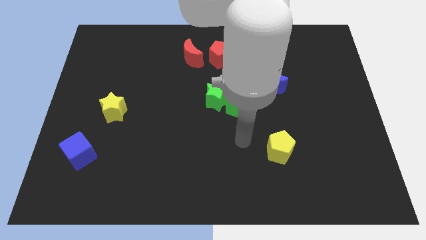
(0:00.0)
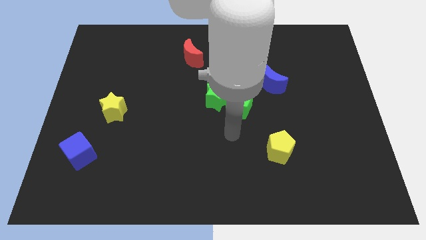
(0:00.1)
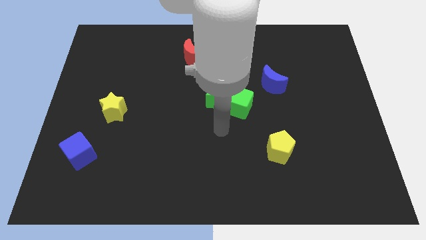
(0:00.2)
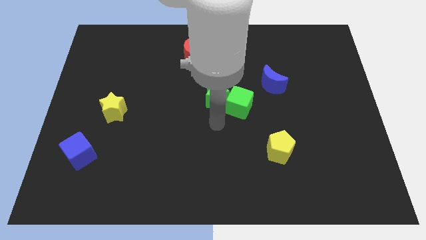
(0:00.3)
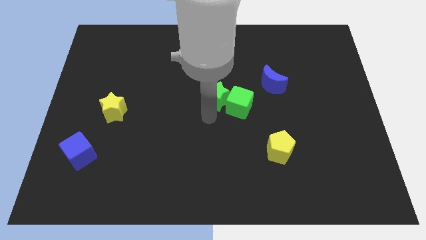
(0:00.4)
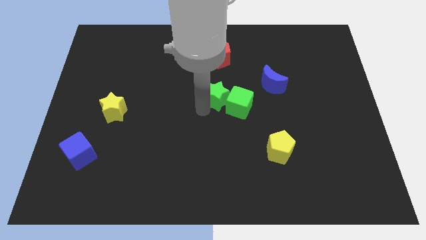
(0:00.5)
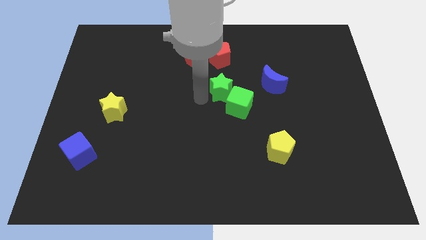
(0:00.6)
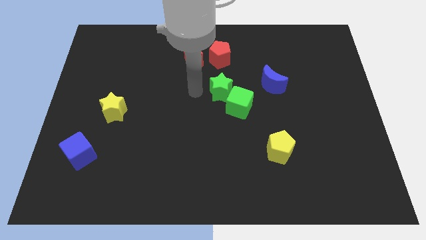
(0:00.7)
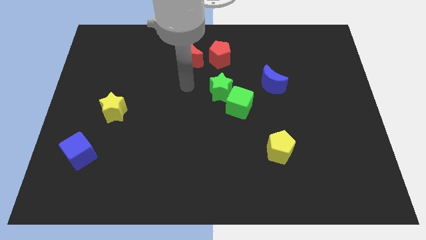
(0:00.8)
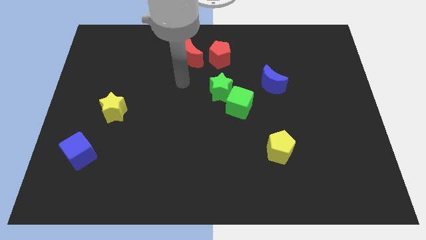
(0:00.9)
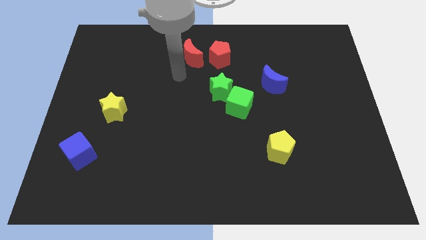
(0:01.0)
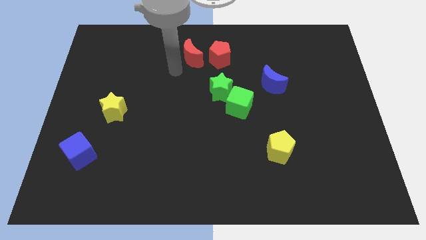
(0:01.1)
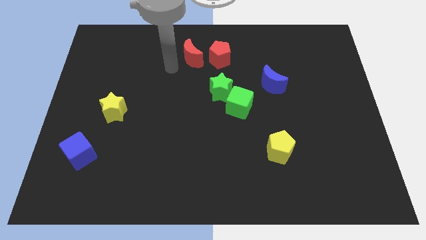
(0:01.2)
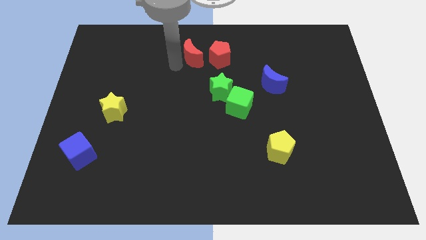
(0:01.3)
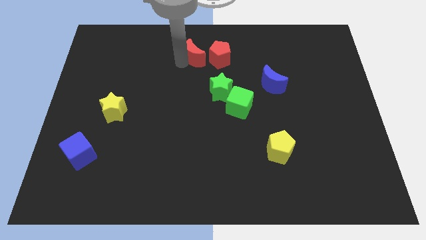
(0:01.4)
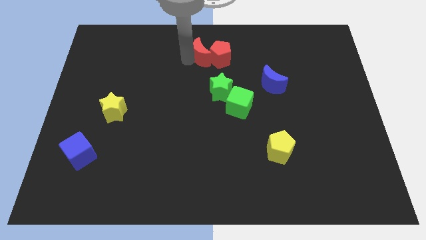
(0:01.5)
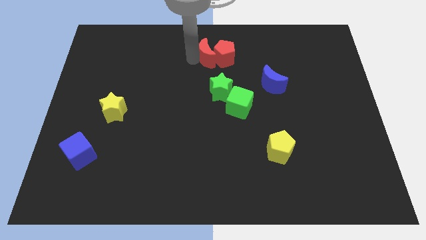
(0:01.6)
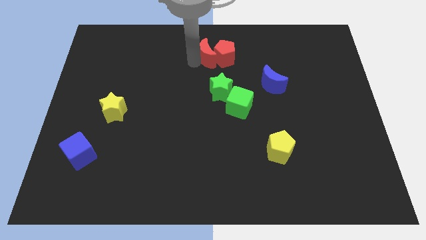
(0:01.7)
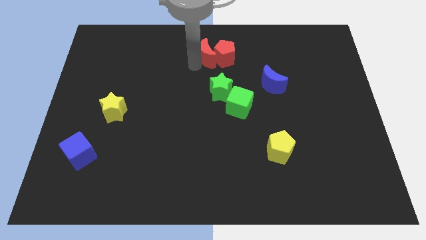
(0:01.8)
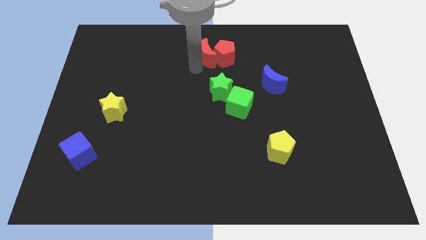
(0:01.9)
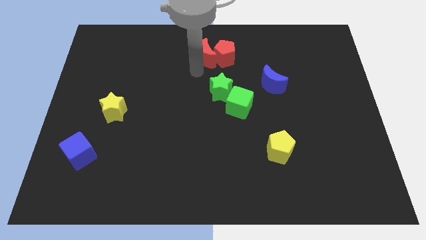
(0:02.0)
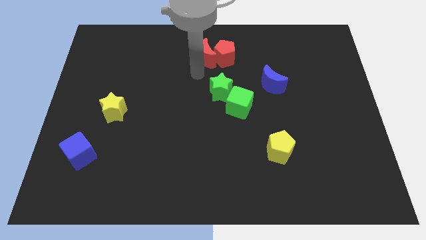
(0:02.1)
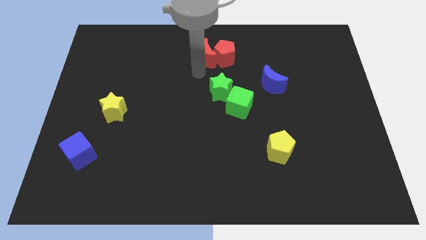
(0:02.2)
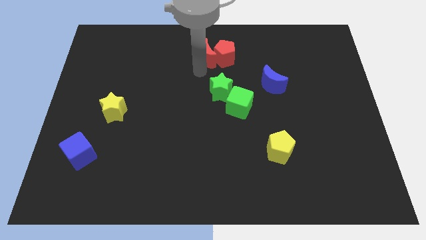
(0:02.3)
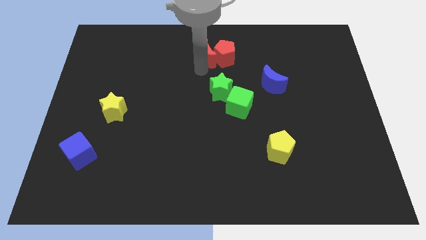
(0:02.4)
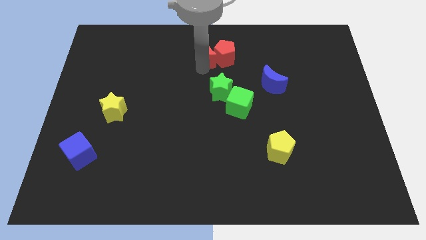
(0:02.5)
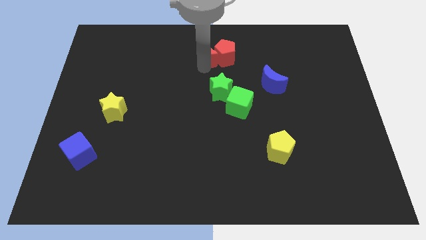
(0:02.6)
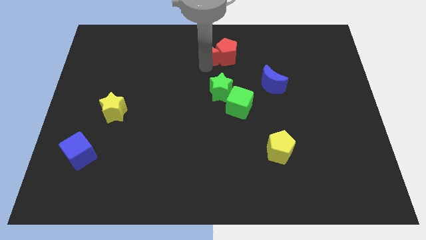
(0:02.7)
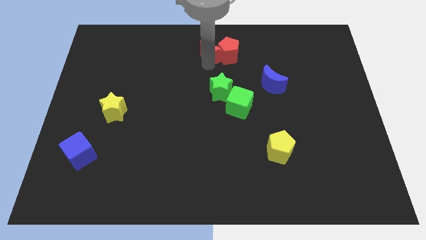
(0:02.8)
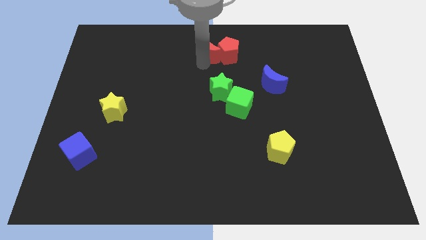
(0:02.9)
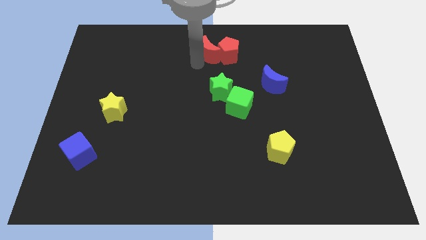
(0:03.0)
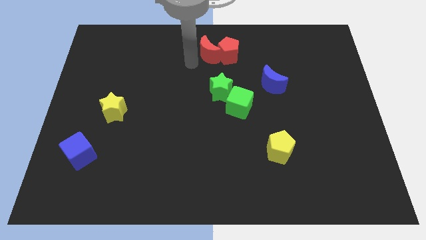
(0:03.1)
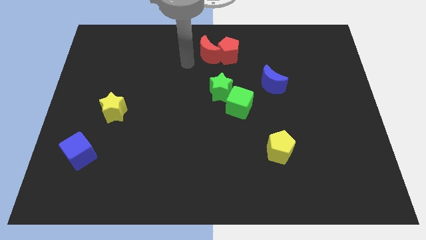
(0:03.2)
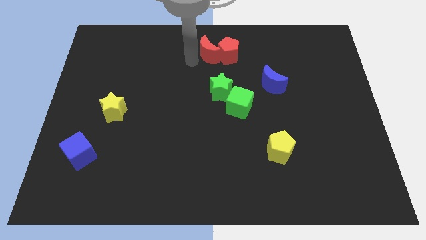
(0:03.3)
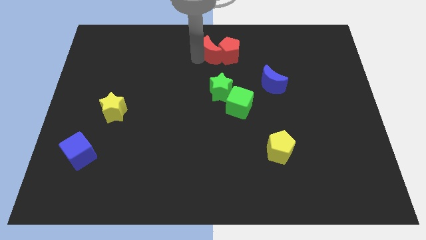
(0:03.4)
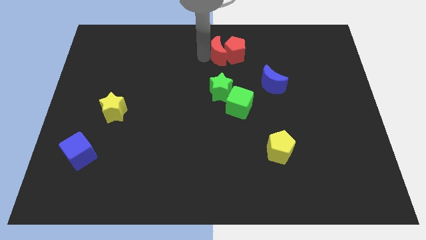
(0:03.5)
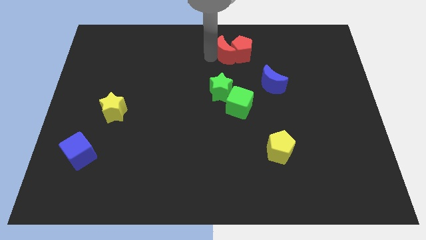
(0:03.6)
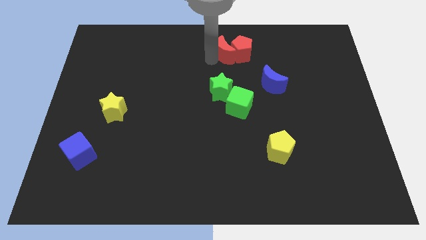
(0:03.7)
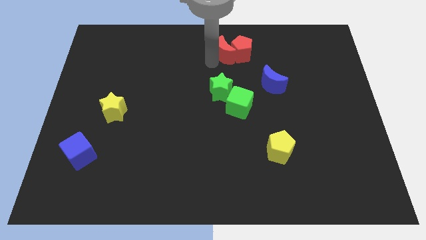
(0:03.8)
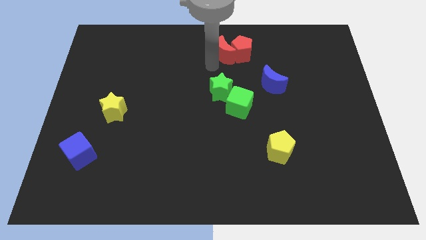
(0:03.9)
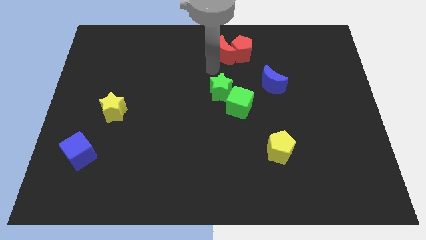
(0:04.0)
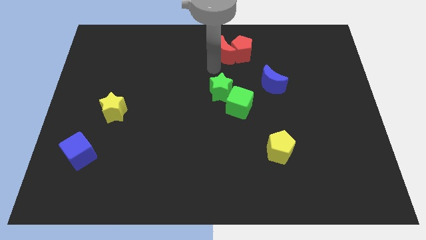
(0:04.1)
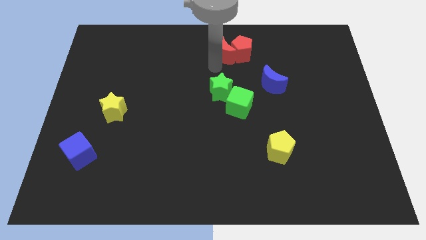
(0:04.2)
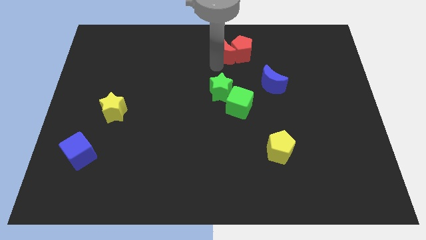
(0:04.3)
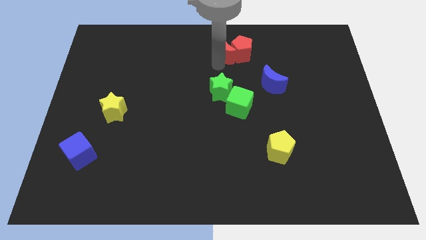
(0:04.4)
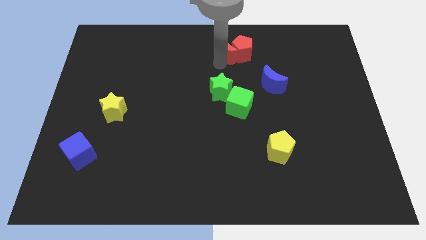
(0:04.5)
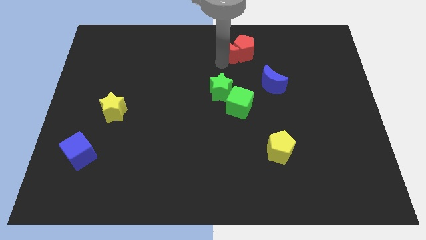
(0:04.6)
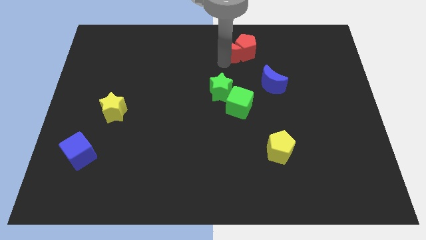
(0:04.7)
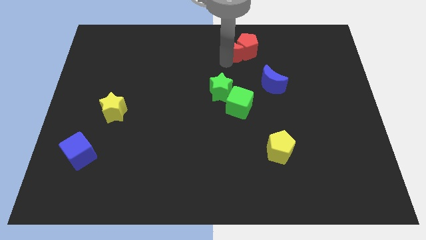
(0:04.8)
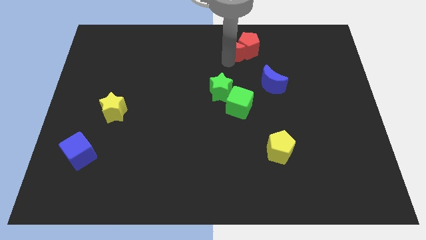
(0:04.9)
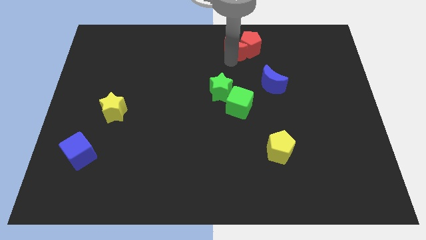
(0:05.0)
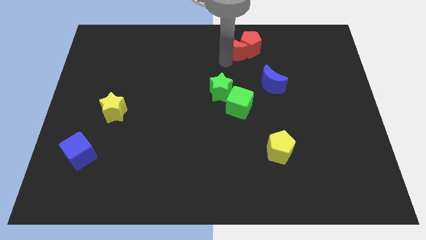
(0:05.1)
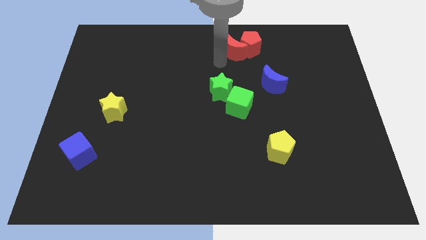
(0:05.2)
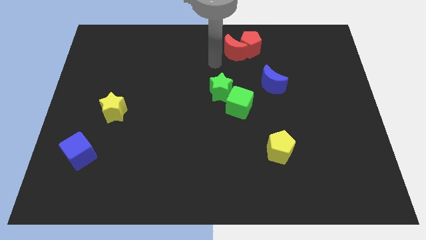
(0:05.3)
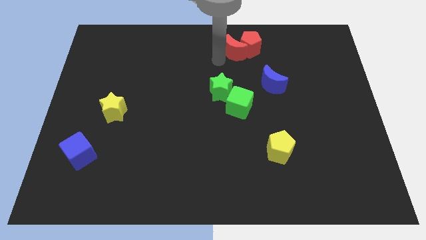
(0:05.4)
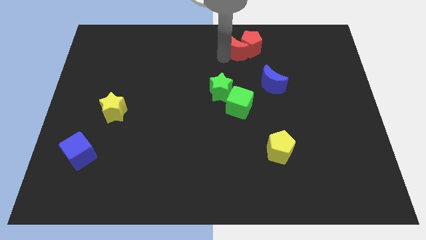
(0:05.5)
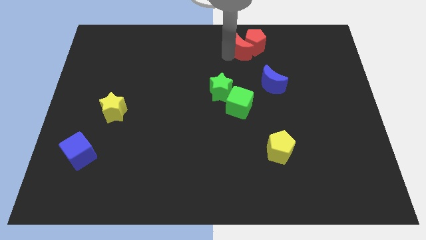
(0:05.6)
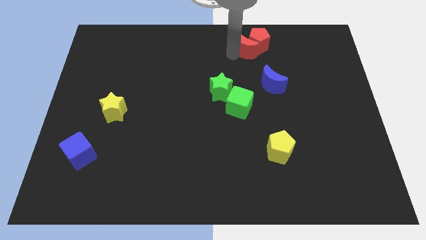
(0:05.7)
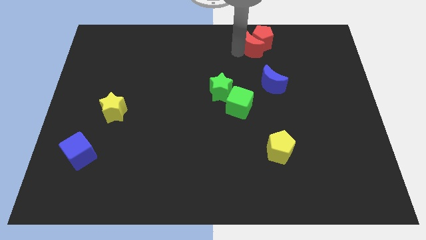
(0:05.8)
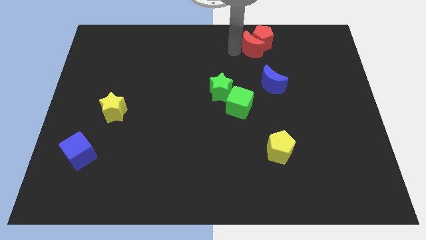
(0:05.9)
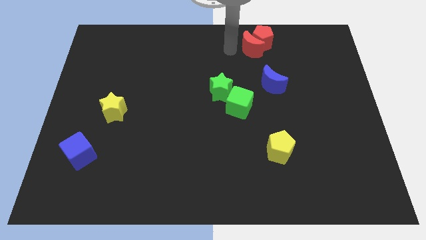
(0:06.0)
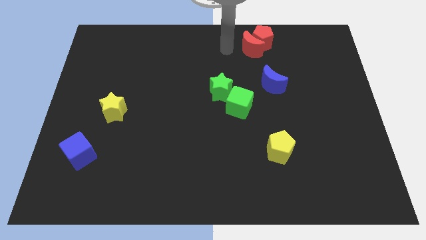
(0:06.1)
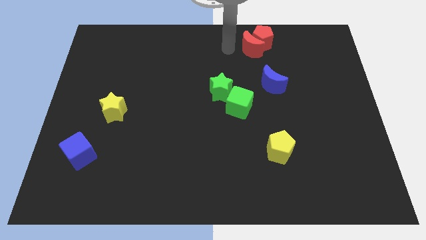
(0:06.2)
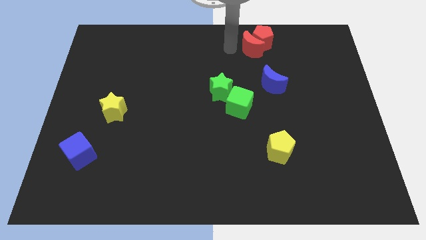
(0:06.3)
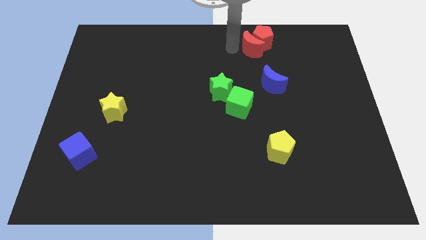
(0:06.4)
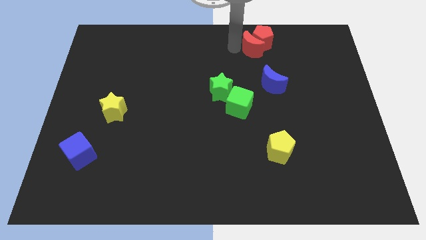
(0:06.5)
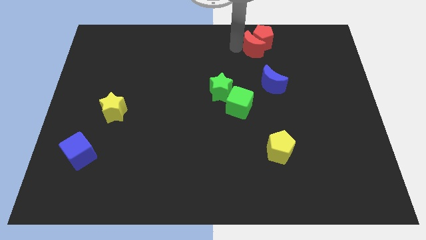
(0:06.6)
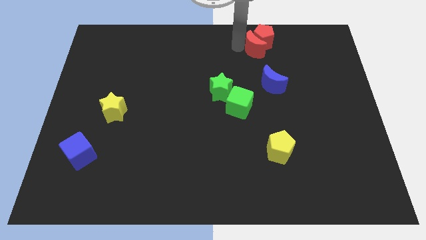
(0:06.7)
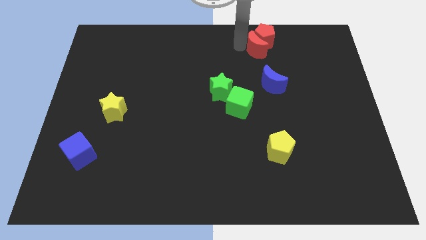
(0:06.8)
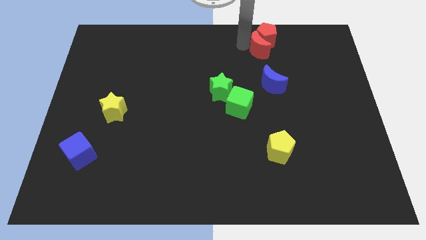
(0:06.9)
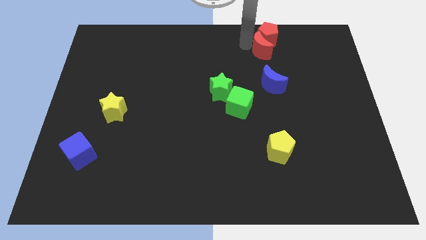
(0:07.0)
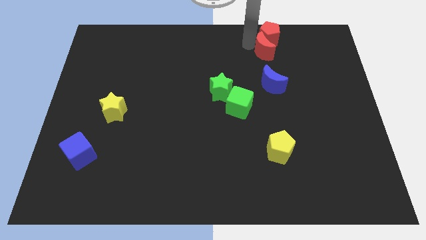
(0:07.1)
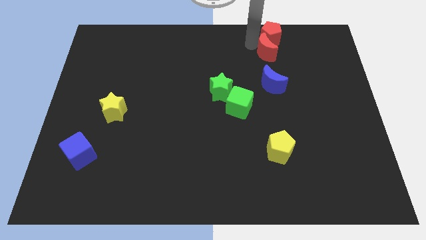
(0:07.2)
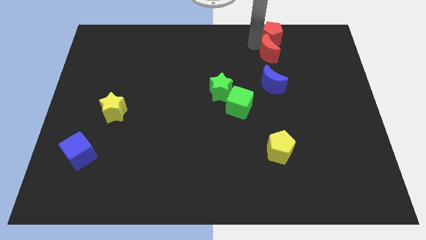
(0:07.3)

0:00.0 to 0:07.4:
move the red moon right

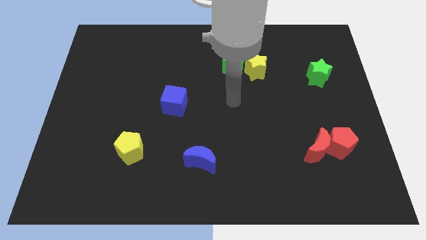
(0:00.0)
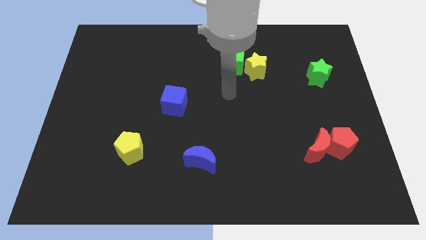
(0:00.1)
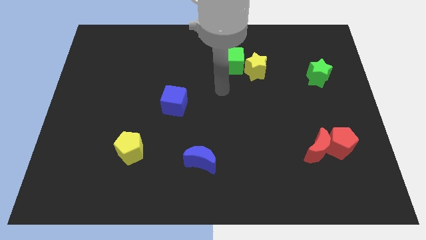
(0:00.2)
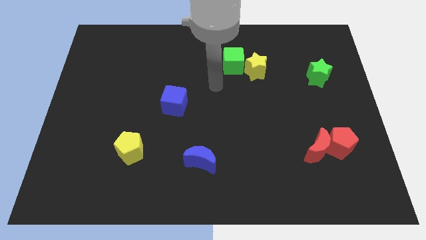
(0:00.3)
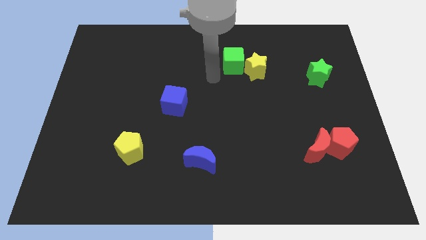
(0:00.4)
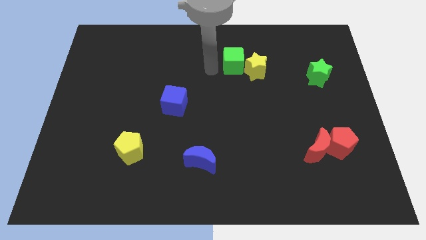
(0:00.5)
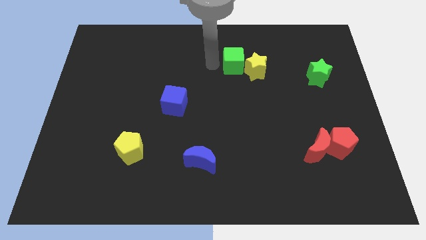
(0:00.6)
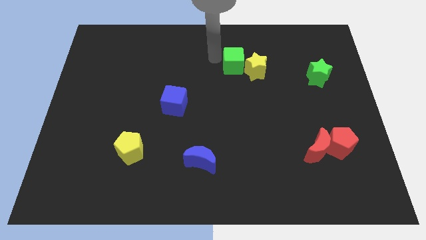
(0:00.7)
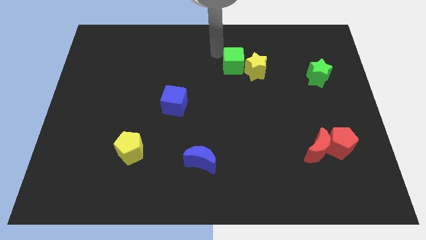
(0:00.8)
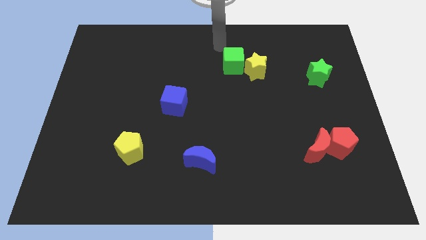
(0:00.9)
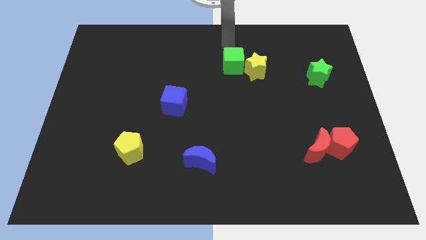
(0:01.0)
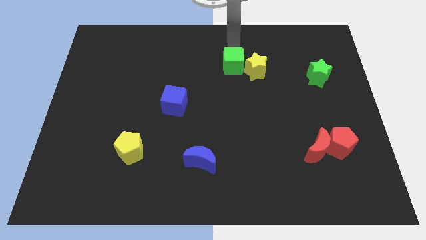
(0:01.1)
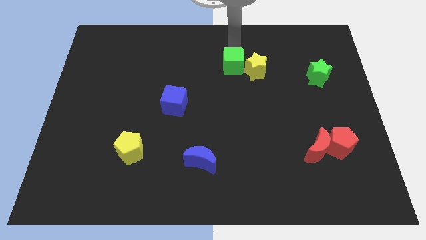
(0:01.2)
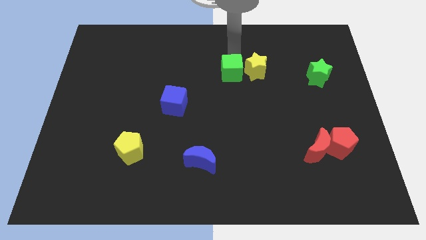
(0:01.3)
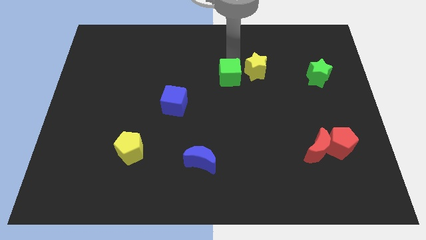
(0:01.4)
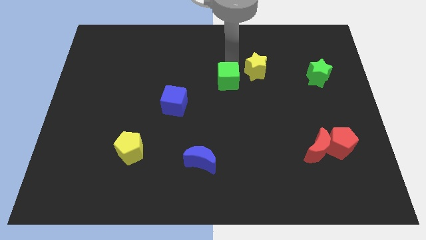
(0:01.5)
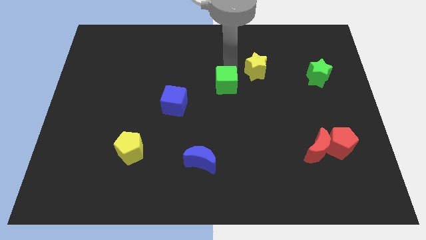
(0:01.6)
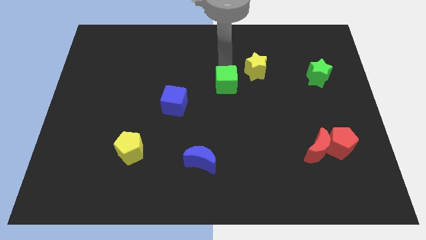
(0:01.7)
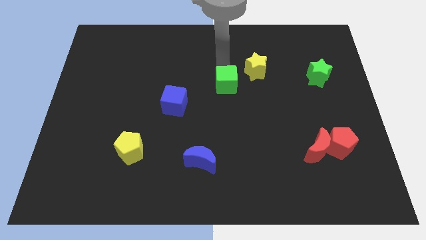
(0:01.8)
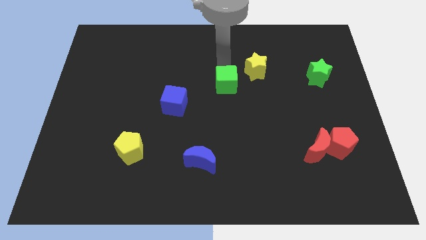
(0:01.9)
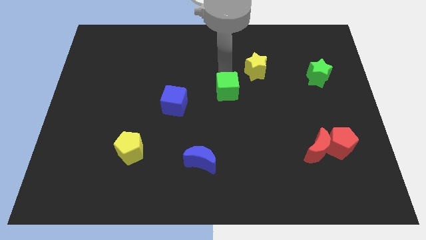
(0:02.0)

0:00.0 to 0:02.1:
slightly move the green cube down
